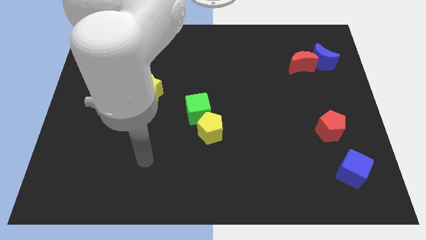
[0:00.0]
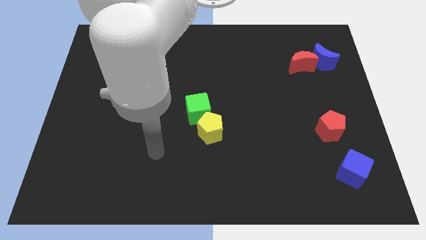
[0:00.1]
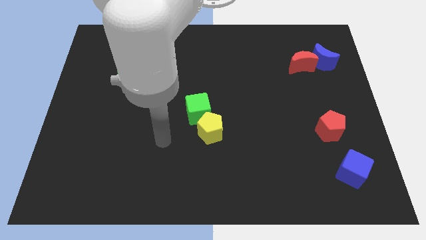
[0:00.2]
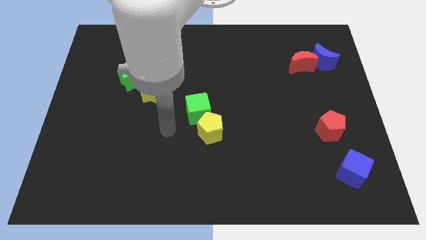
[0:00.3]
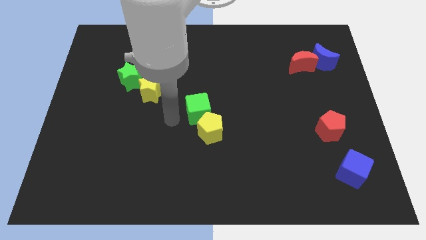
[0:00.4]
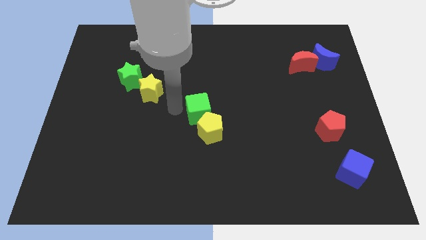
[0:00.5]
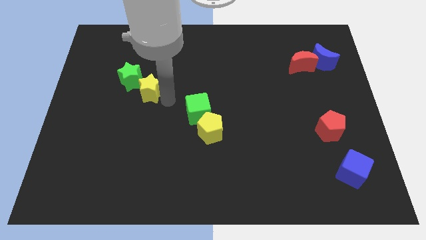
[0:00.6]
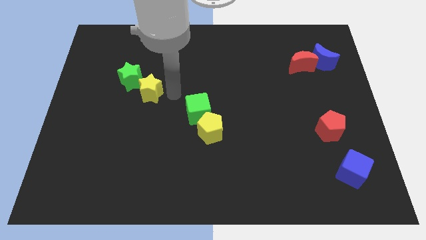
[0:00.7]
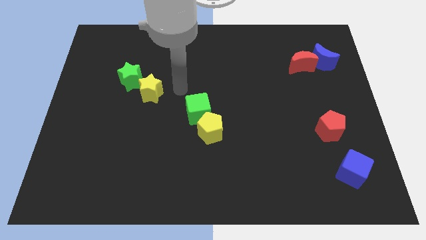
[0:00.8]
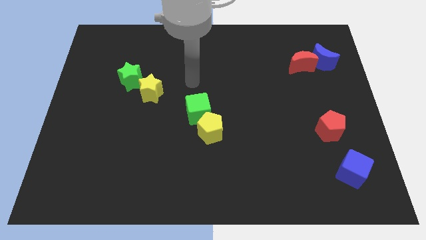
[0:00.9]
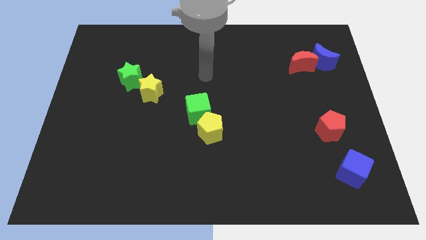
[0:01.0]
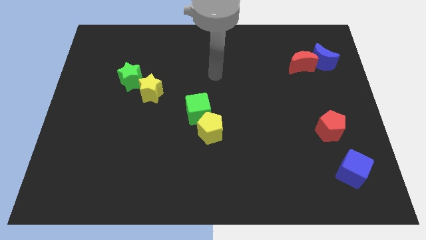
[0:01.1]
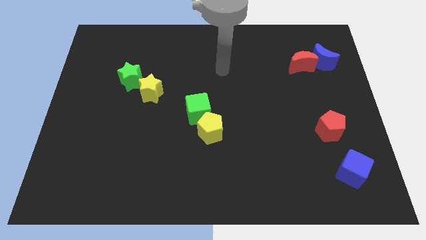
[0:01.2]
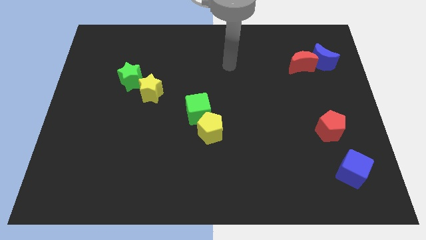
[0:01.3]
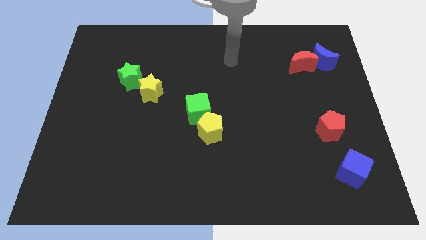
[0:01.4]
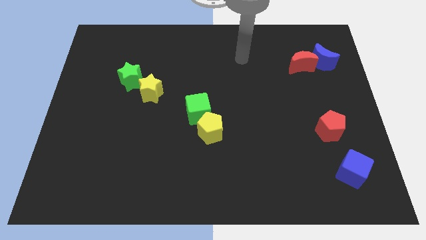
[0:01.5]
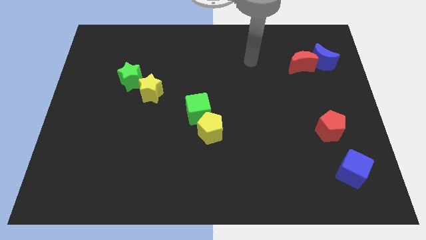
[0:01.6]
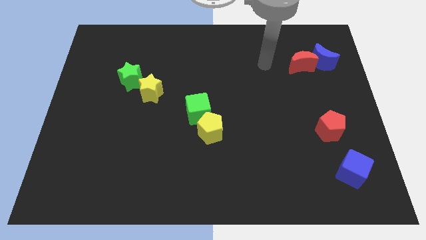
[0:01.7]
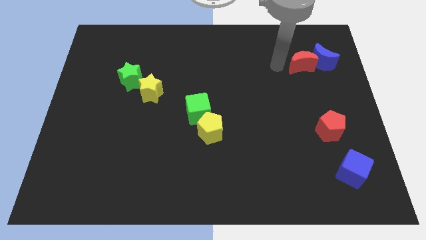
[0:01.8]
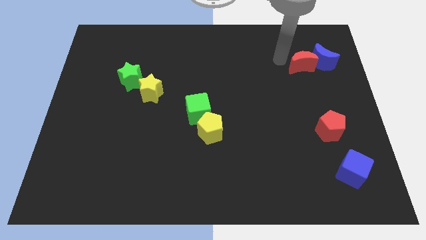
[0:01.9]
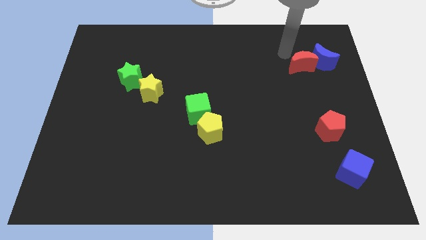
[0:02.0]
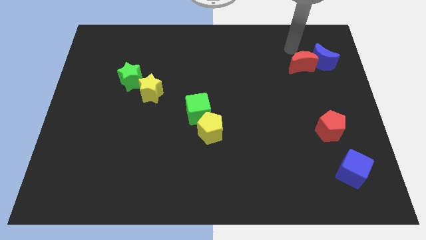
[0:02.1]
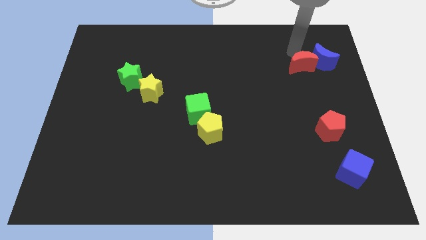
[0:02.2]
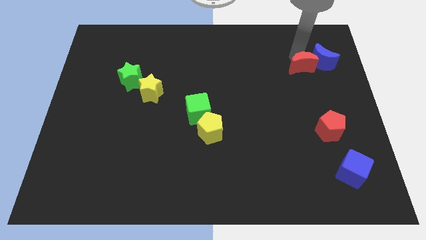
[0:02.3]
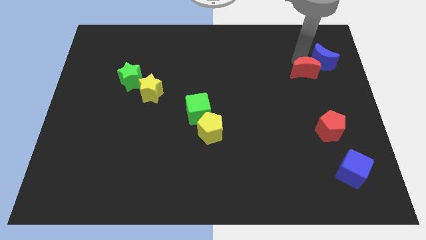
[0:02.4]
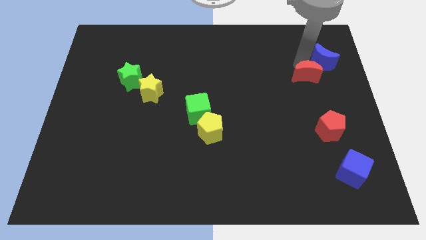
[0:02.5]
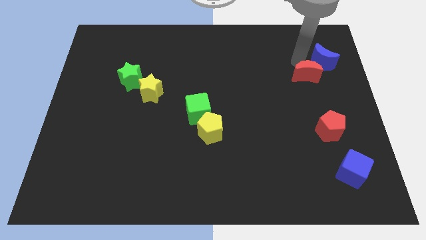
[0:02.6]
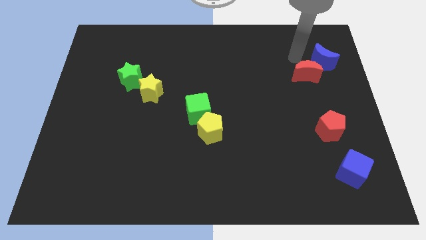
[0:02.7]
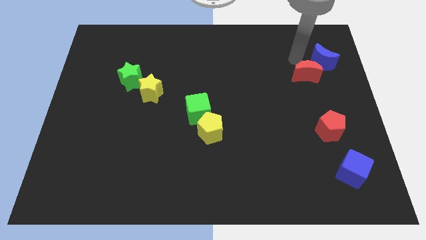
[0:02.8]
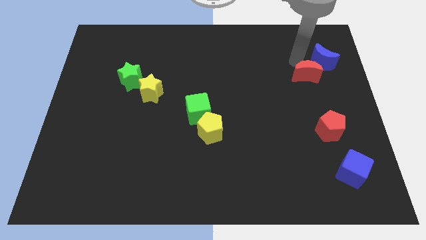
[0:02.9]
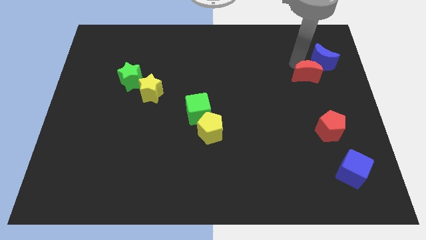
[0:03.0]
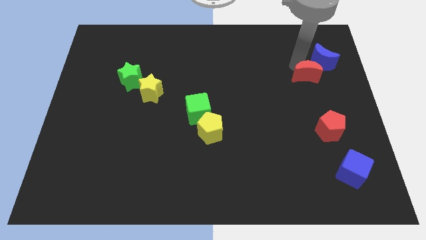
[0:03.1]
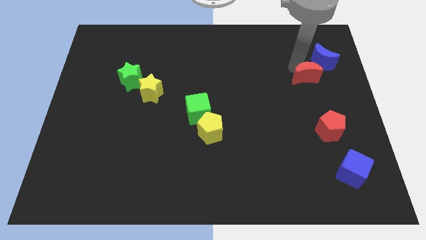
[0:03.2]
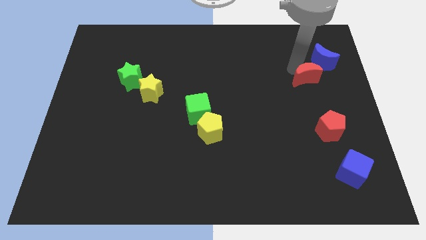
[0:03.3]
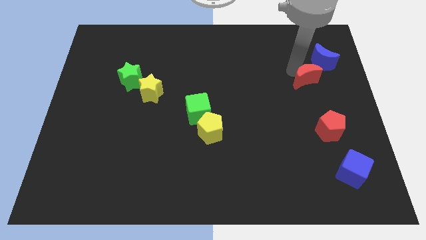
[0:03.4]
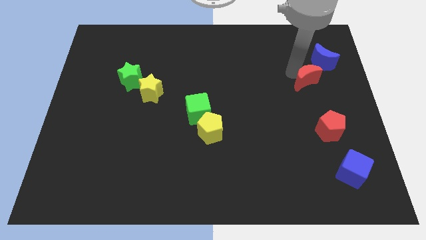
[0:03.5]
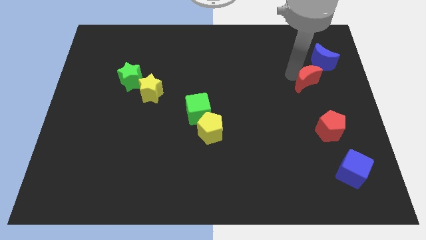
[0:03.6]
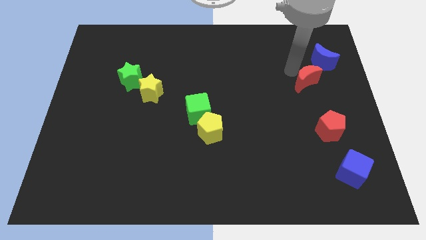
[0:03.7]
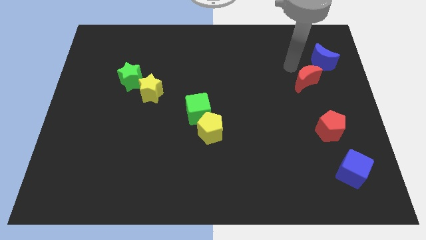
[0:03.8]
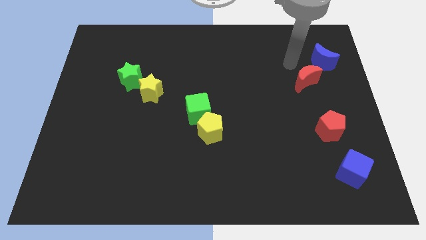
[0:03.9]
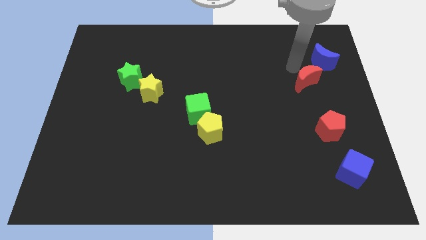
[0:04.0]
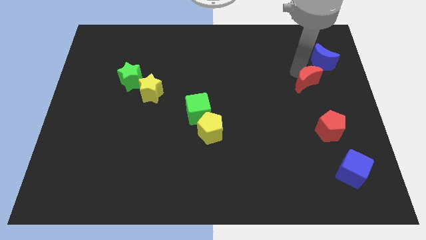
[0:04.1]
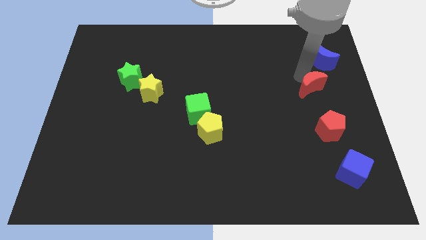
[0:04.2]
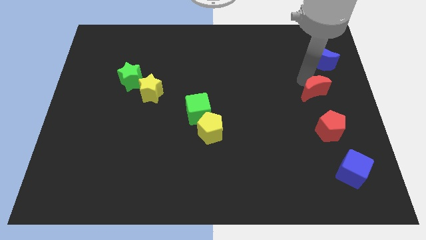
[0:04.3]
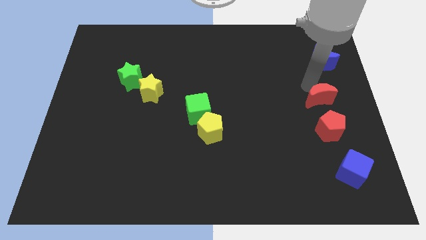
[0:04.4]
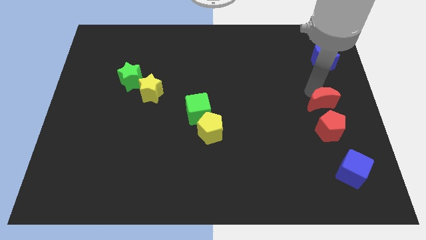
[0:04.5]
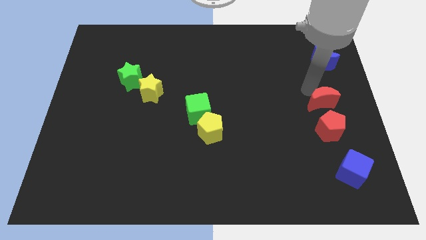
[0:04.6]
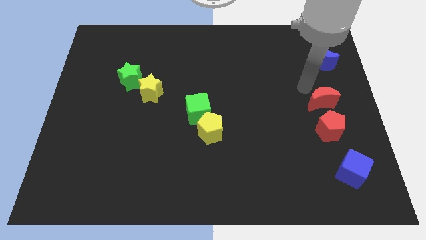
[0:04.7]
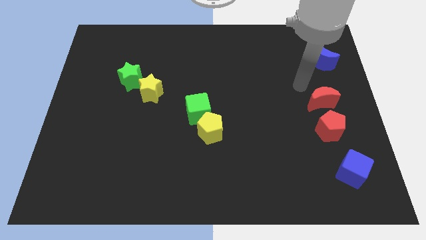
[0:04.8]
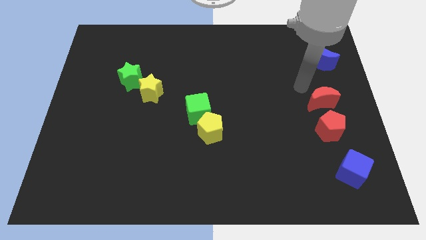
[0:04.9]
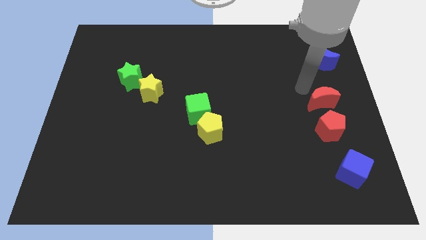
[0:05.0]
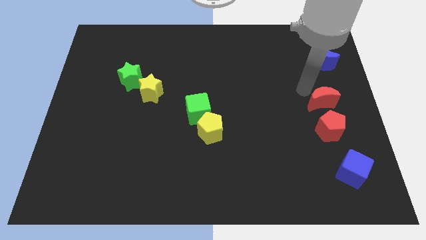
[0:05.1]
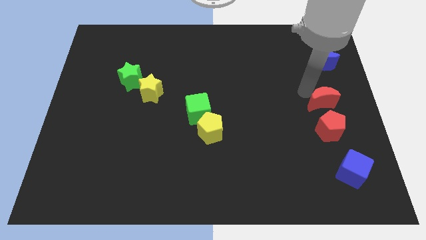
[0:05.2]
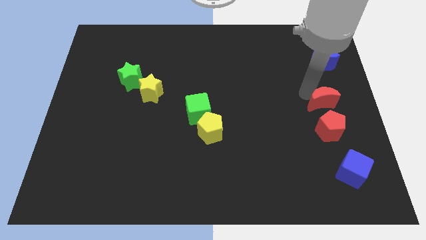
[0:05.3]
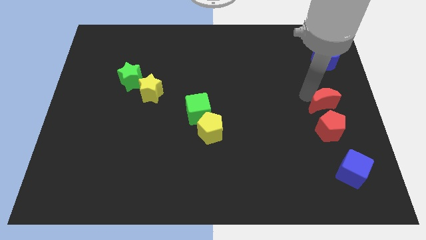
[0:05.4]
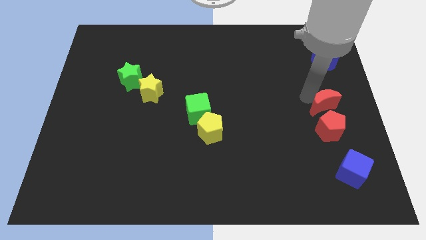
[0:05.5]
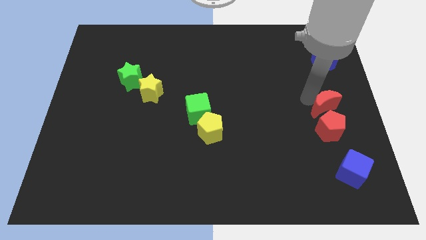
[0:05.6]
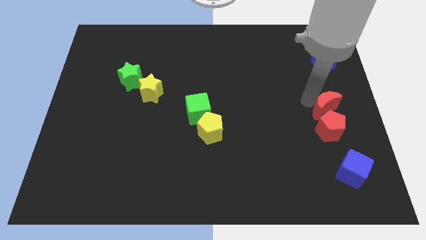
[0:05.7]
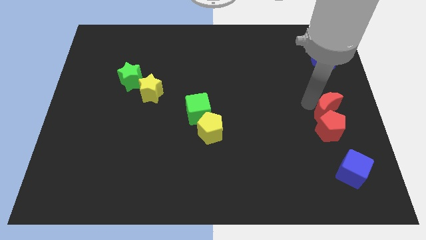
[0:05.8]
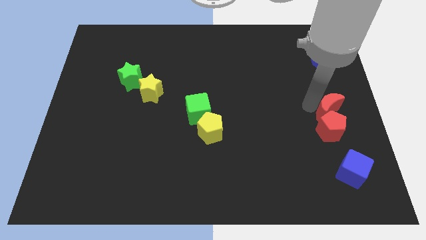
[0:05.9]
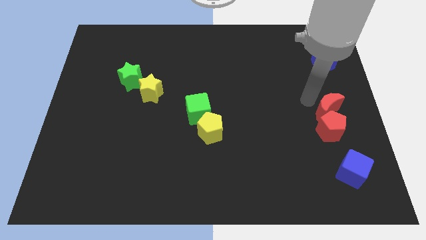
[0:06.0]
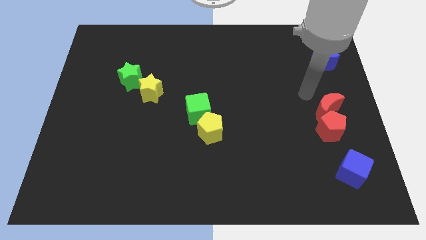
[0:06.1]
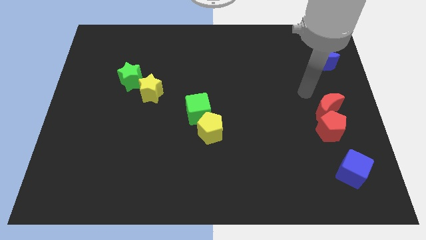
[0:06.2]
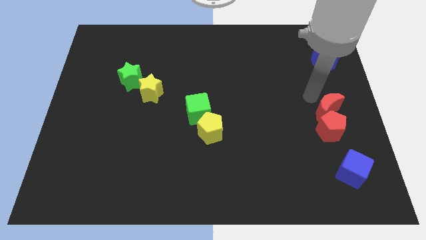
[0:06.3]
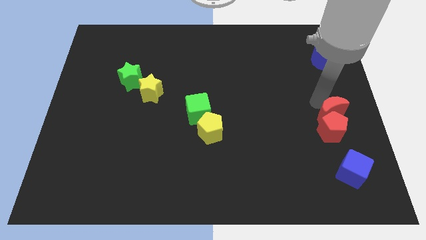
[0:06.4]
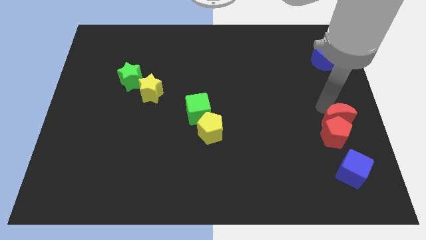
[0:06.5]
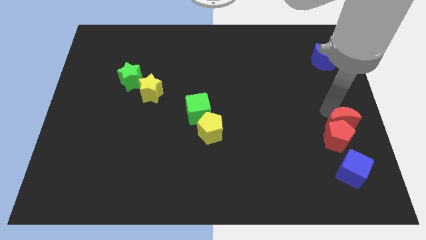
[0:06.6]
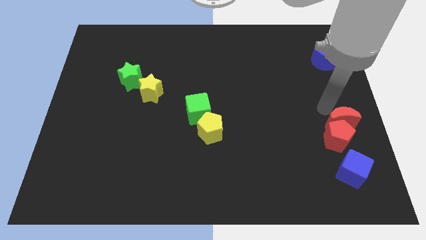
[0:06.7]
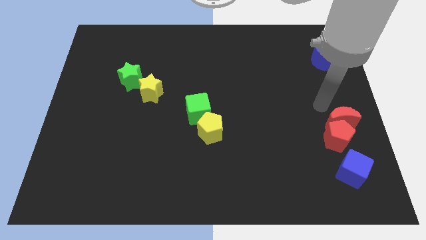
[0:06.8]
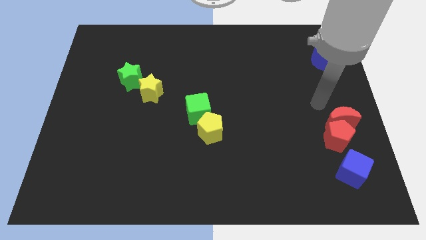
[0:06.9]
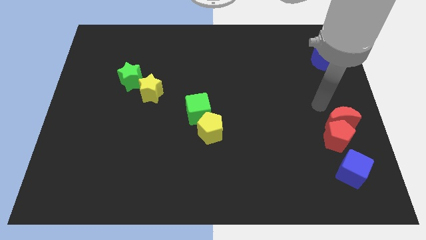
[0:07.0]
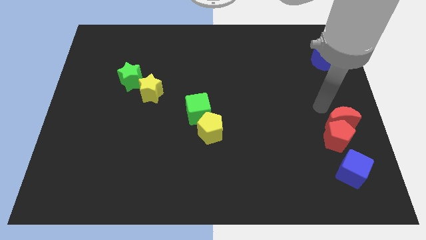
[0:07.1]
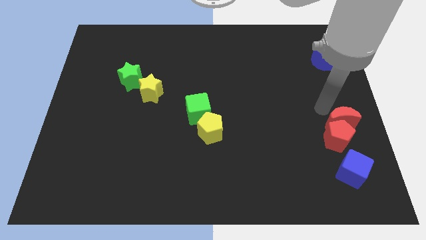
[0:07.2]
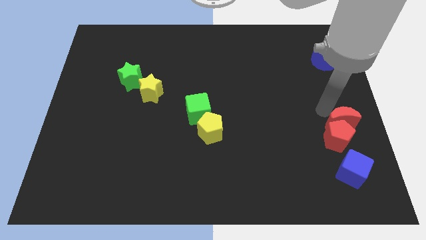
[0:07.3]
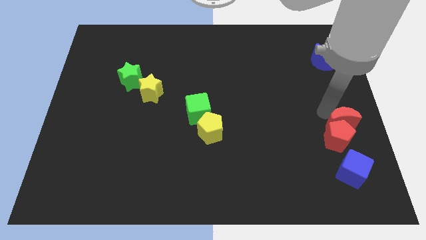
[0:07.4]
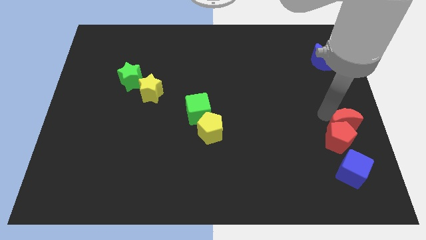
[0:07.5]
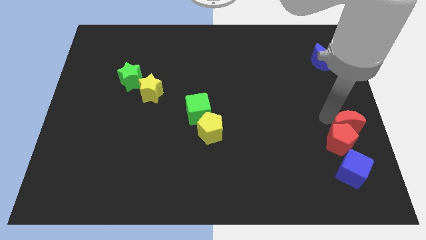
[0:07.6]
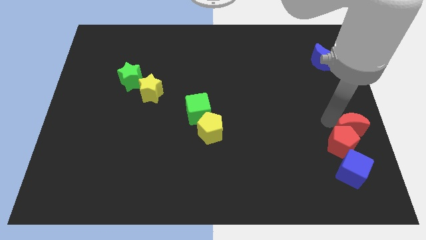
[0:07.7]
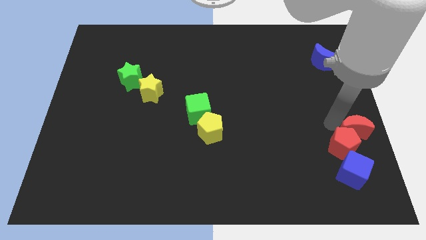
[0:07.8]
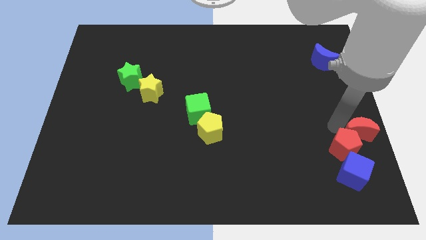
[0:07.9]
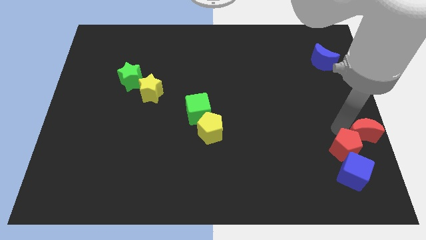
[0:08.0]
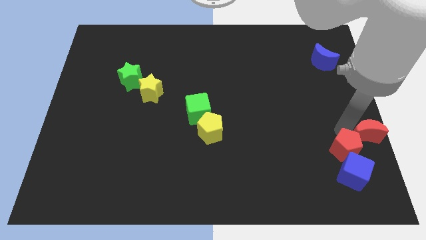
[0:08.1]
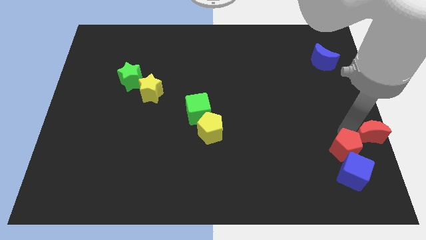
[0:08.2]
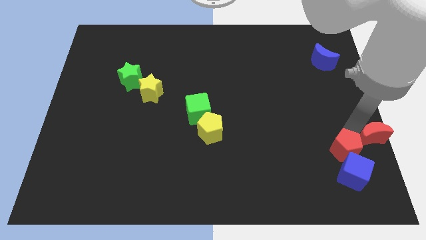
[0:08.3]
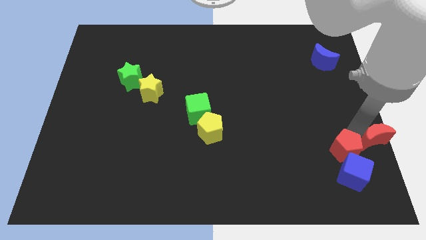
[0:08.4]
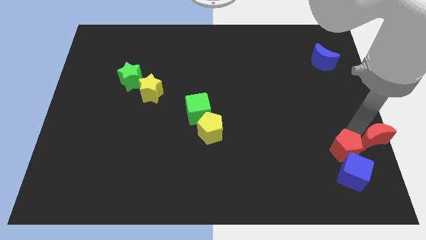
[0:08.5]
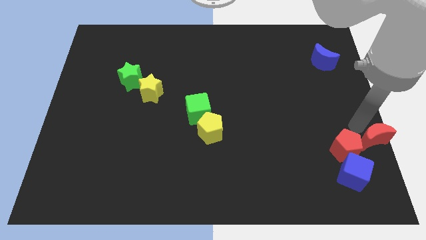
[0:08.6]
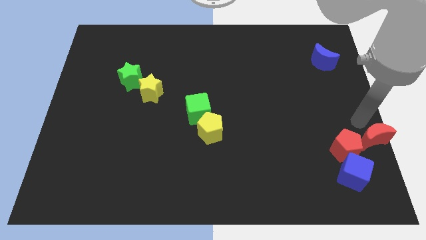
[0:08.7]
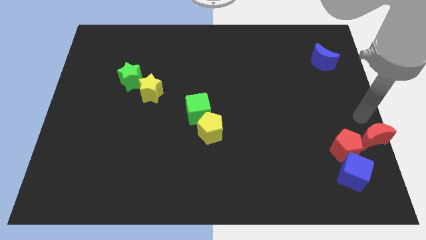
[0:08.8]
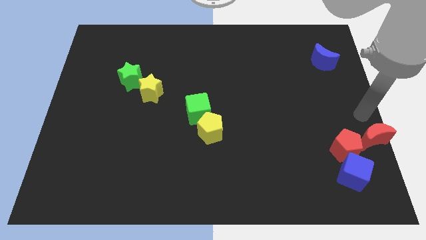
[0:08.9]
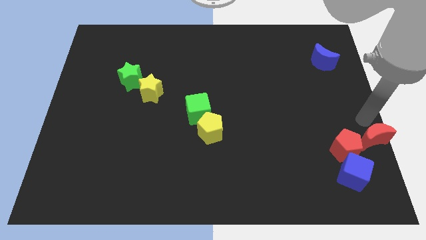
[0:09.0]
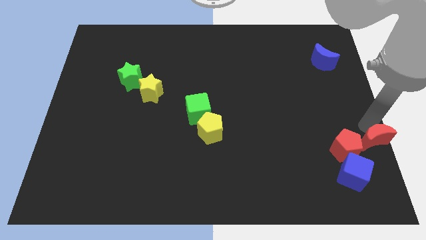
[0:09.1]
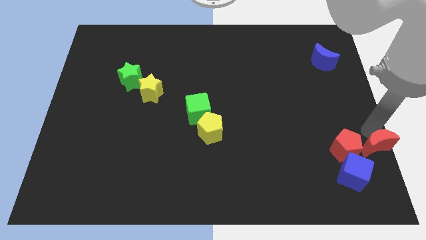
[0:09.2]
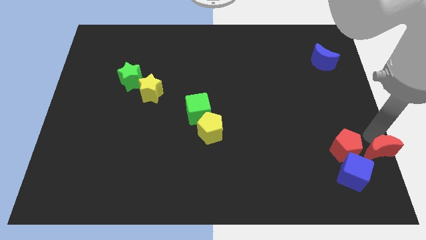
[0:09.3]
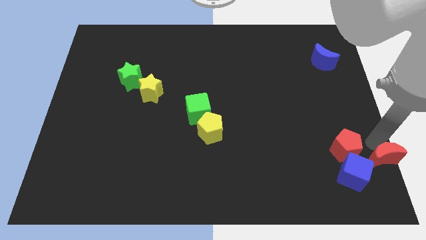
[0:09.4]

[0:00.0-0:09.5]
put the red moon to the bottom right of the board
